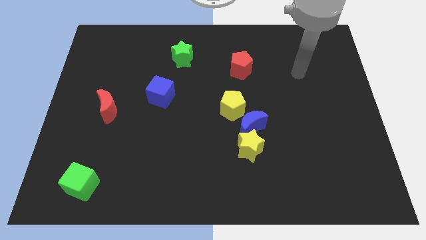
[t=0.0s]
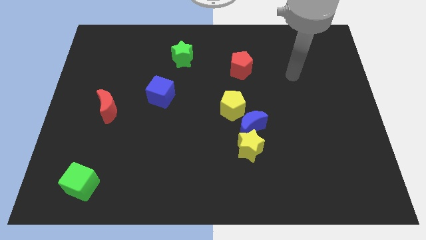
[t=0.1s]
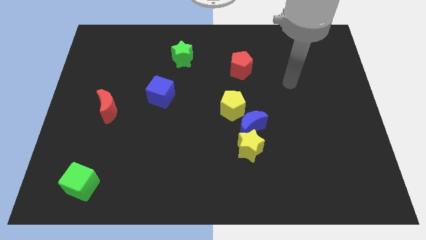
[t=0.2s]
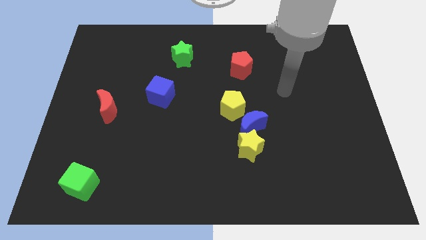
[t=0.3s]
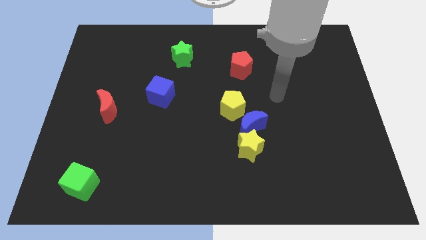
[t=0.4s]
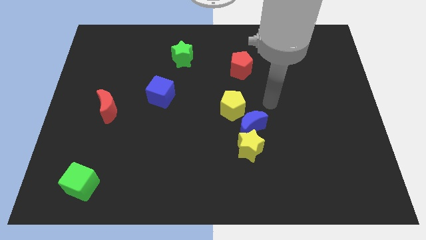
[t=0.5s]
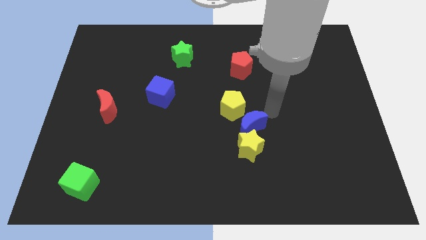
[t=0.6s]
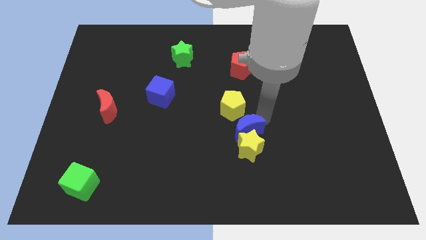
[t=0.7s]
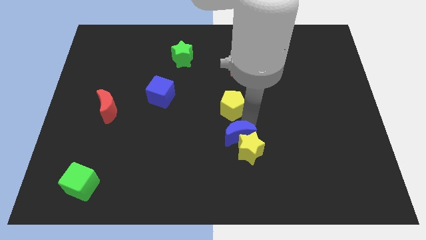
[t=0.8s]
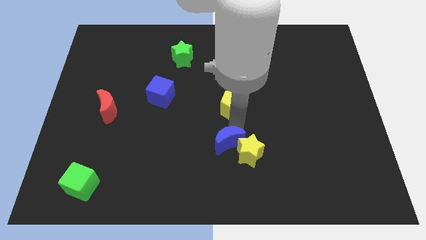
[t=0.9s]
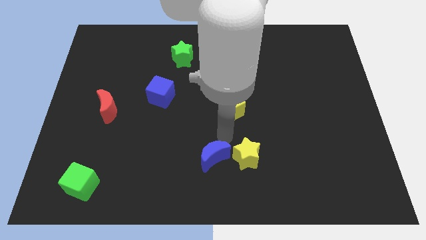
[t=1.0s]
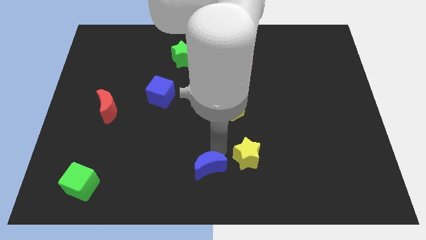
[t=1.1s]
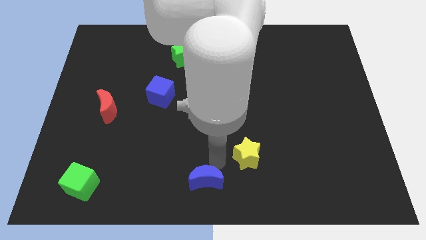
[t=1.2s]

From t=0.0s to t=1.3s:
move the yellow star away from the blue moon

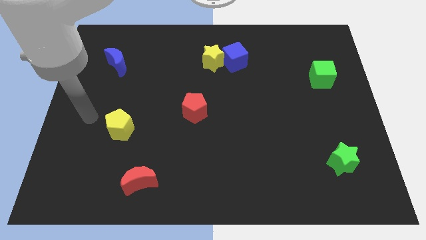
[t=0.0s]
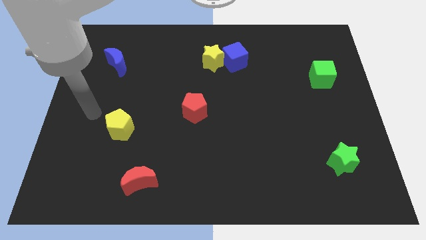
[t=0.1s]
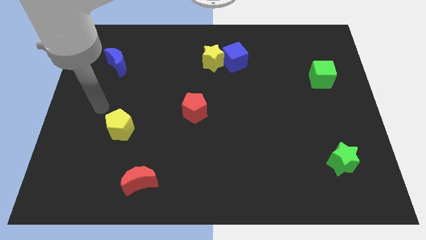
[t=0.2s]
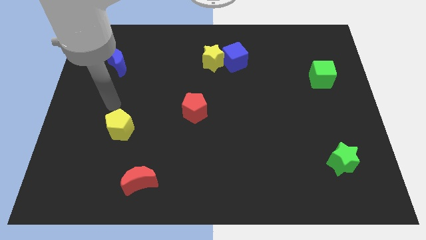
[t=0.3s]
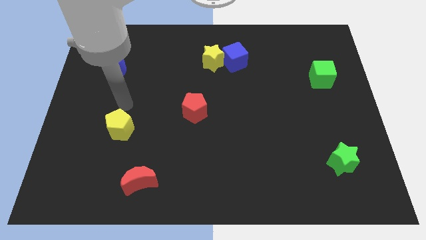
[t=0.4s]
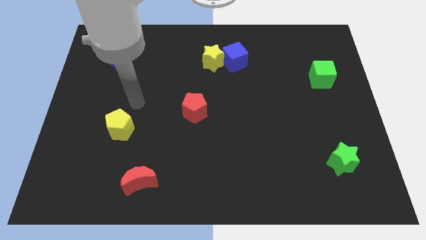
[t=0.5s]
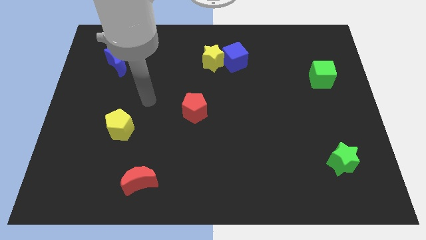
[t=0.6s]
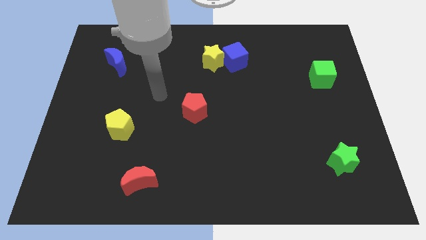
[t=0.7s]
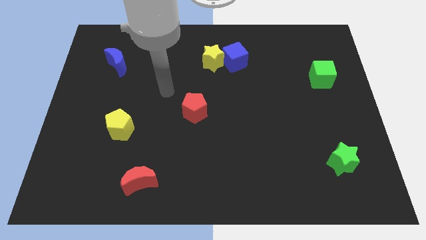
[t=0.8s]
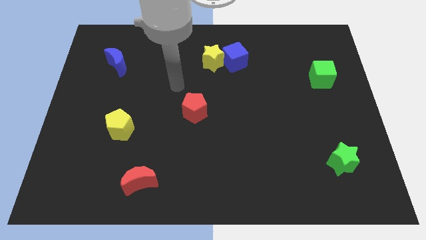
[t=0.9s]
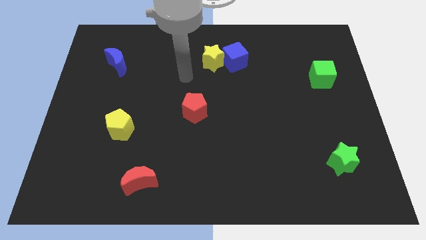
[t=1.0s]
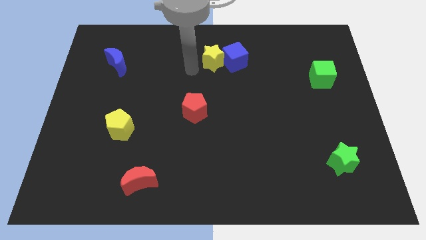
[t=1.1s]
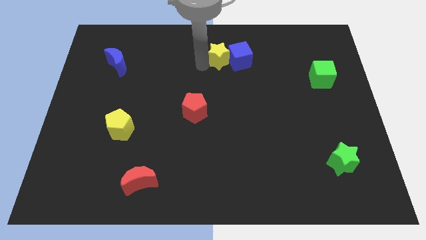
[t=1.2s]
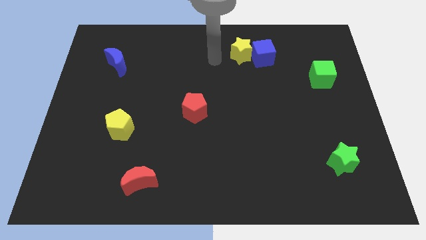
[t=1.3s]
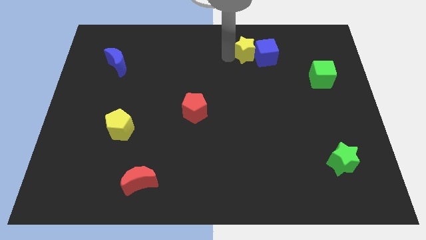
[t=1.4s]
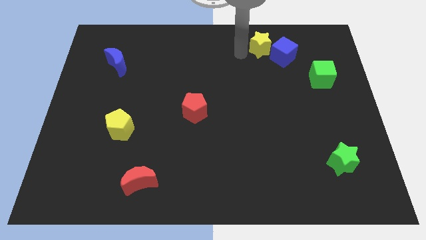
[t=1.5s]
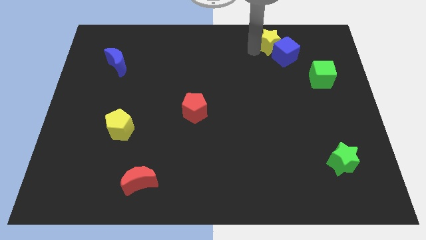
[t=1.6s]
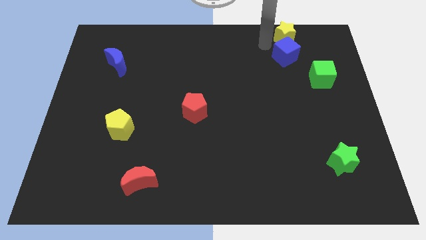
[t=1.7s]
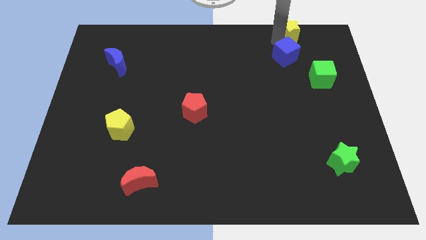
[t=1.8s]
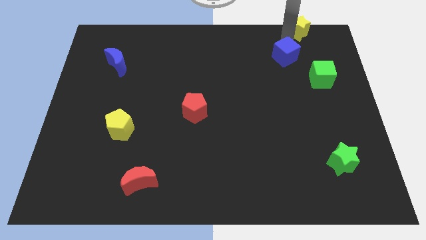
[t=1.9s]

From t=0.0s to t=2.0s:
pull the blue cube apart from the yellow star

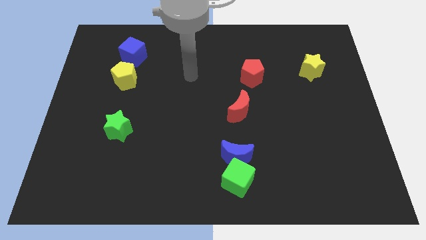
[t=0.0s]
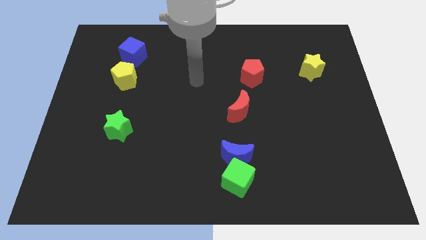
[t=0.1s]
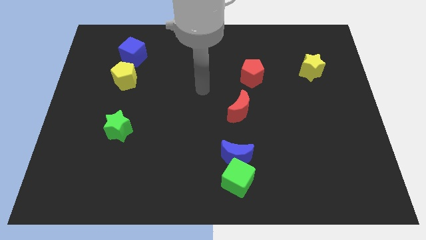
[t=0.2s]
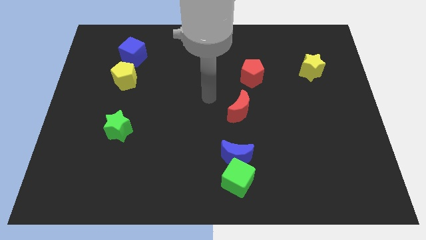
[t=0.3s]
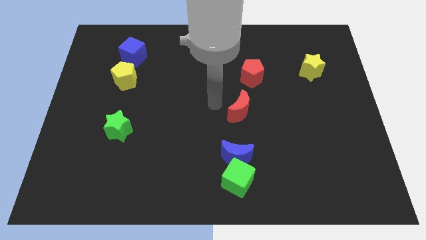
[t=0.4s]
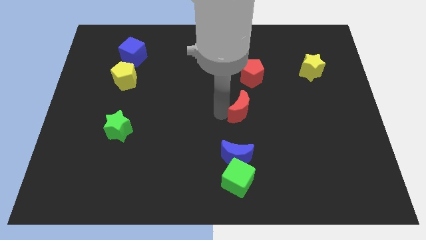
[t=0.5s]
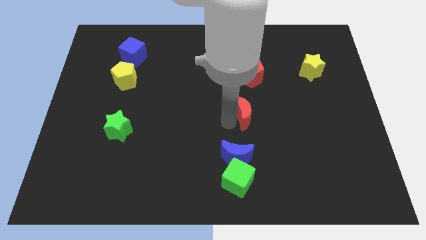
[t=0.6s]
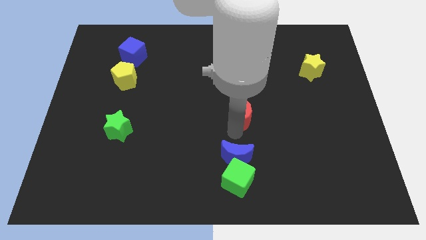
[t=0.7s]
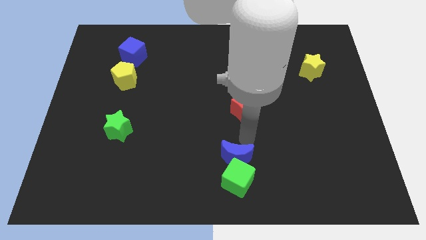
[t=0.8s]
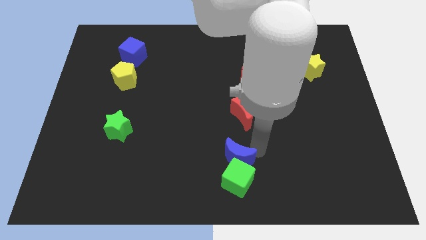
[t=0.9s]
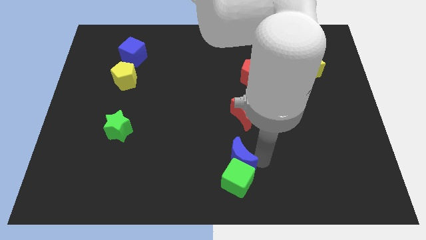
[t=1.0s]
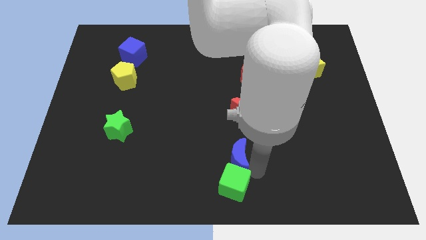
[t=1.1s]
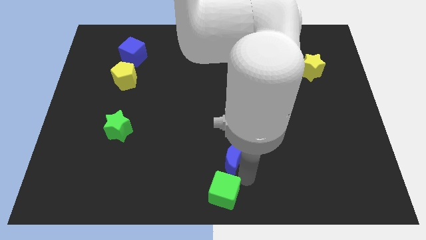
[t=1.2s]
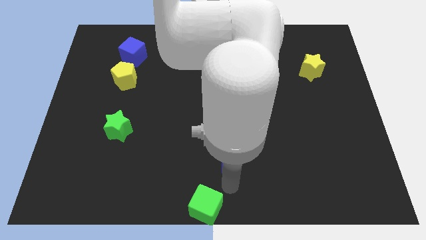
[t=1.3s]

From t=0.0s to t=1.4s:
separate the blue moon from the green cube

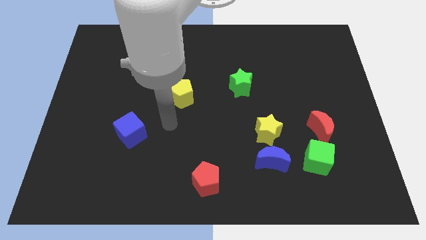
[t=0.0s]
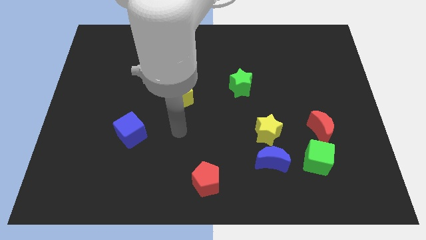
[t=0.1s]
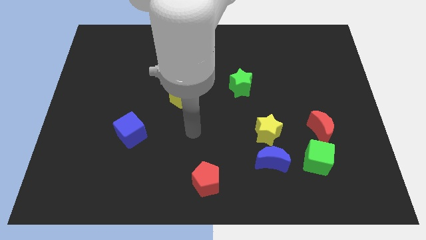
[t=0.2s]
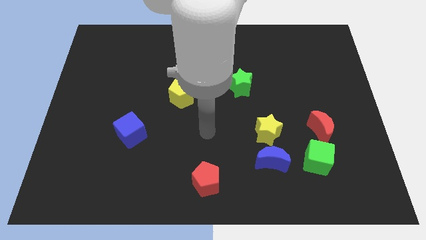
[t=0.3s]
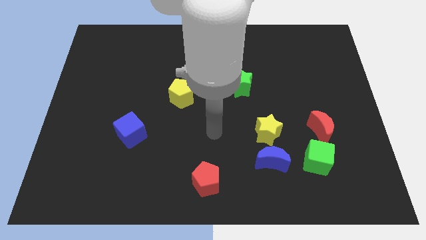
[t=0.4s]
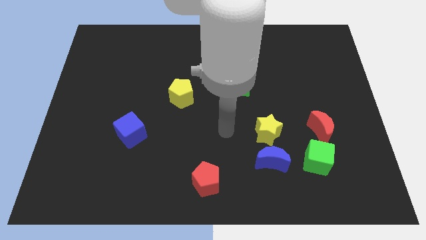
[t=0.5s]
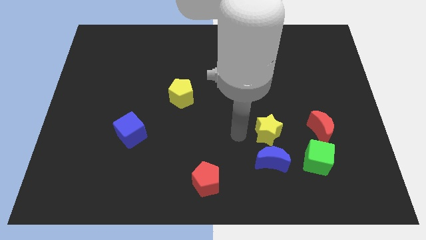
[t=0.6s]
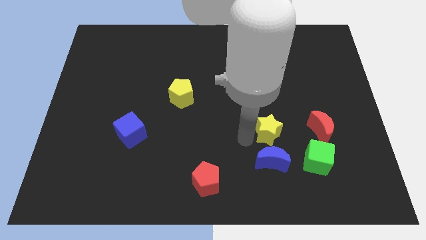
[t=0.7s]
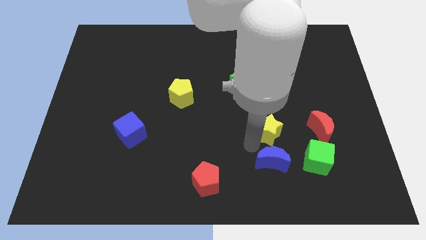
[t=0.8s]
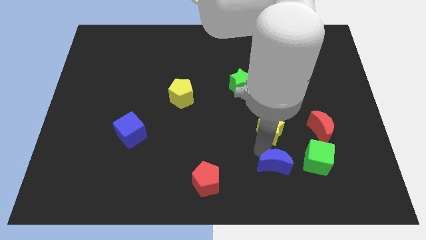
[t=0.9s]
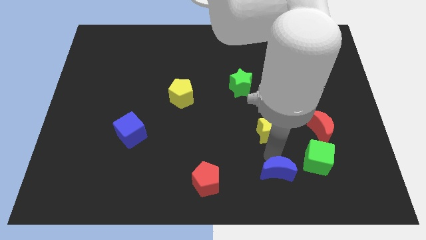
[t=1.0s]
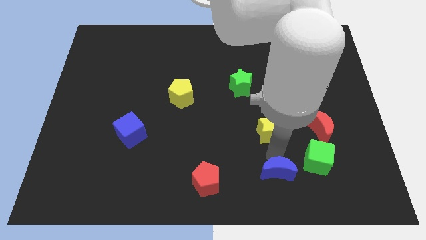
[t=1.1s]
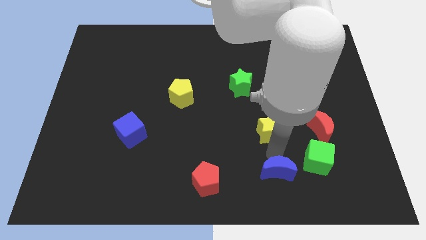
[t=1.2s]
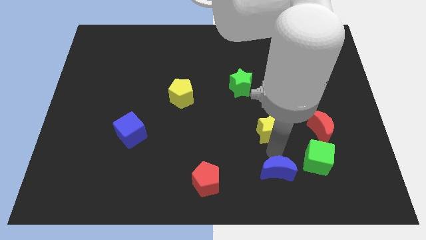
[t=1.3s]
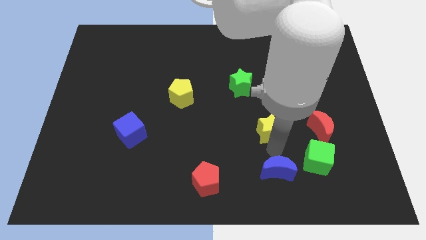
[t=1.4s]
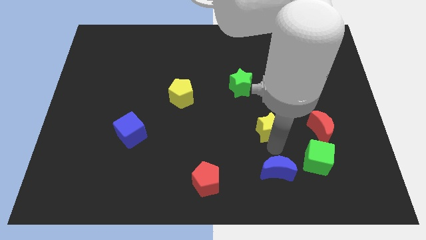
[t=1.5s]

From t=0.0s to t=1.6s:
separate the yellow star from the blue moon

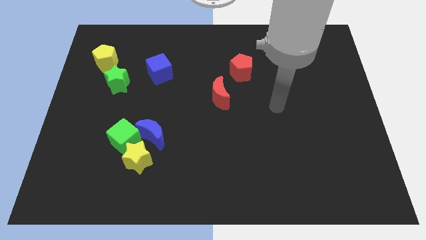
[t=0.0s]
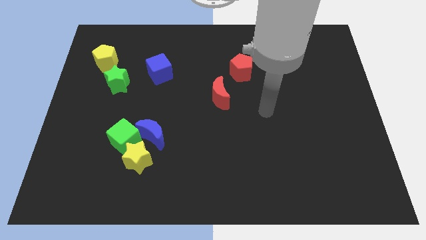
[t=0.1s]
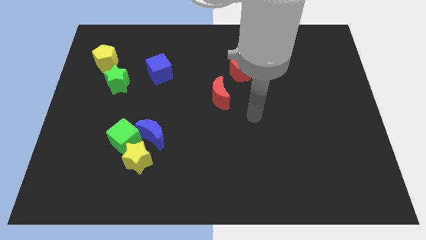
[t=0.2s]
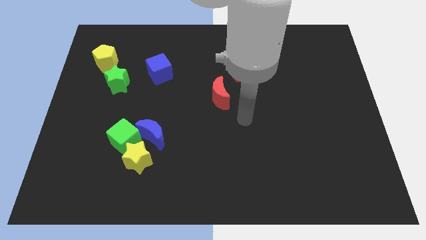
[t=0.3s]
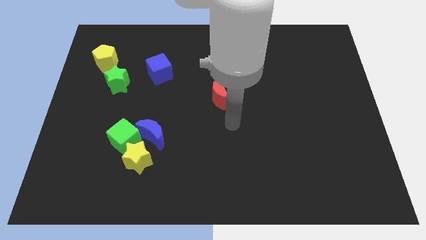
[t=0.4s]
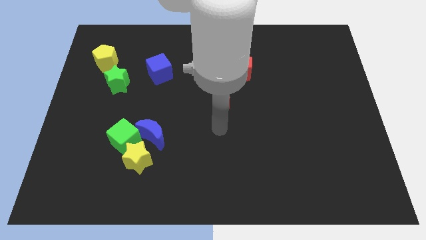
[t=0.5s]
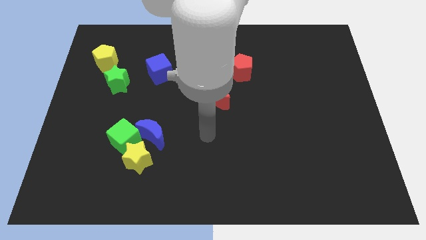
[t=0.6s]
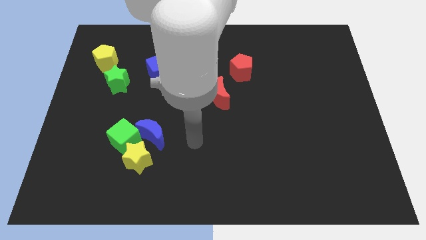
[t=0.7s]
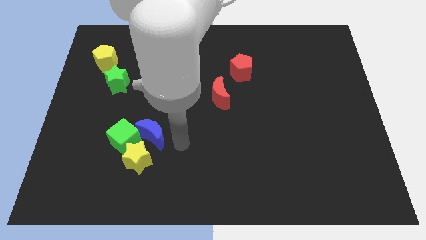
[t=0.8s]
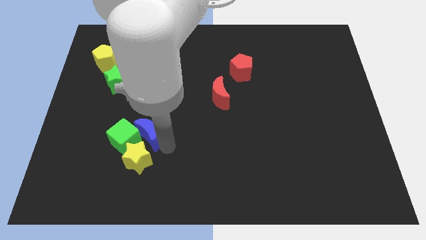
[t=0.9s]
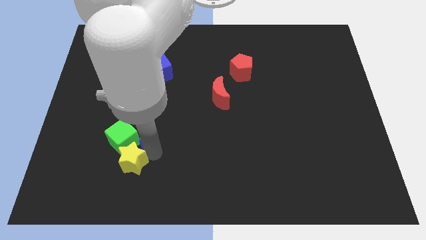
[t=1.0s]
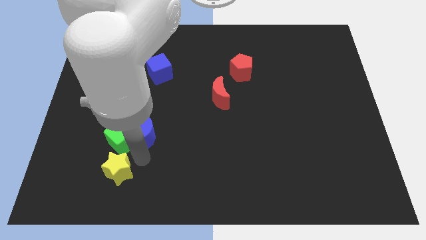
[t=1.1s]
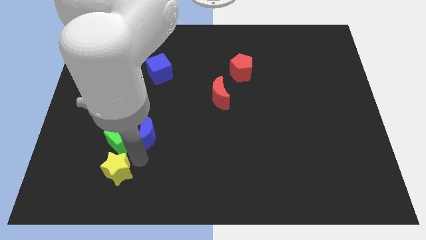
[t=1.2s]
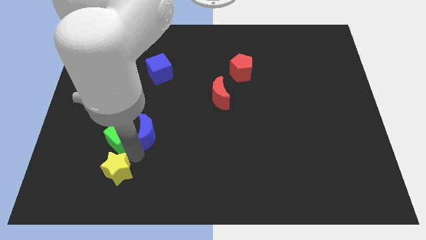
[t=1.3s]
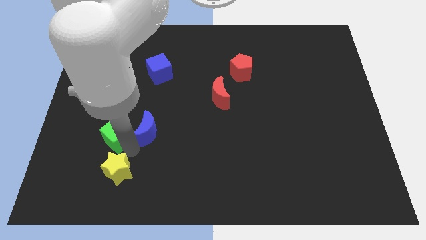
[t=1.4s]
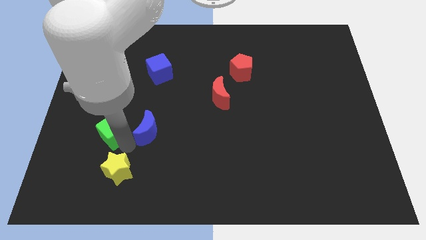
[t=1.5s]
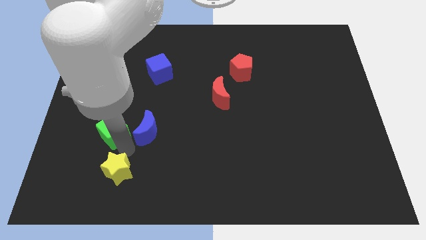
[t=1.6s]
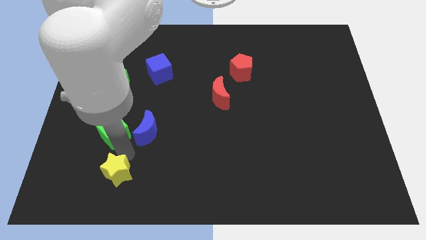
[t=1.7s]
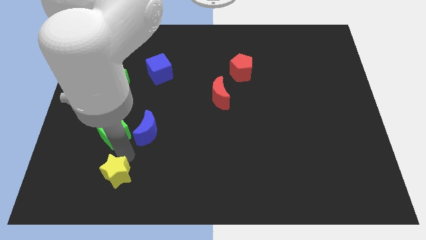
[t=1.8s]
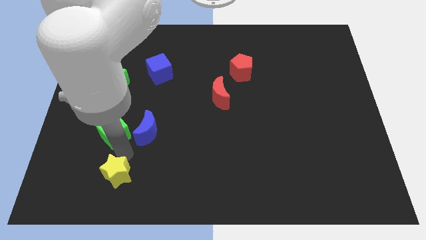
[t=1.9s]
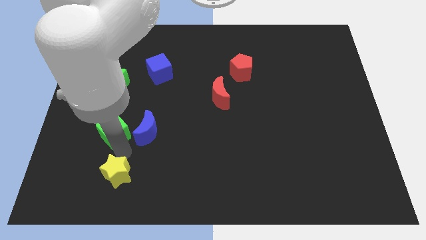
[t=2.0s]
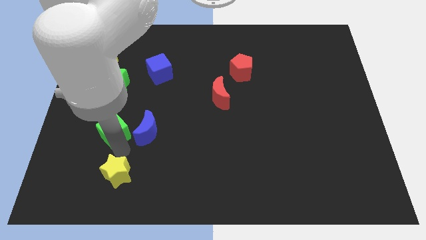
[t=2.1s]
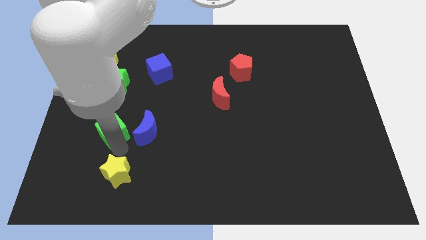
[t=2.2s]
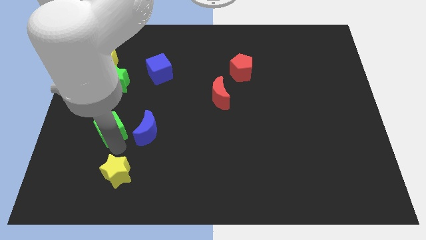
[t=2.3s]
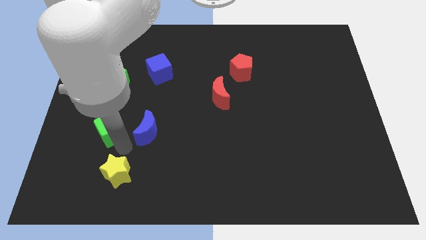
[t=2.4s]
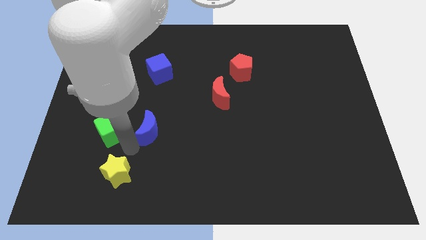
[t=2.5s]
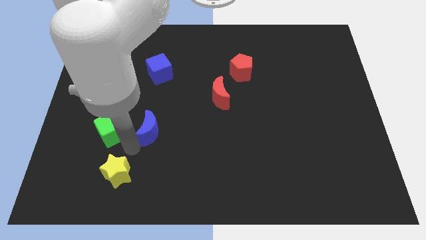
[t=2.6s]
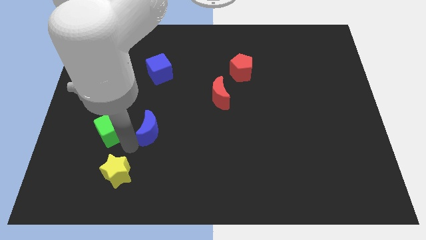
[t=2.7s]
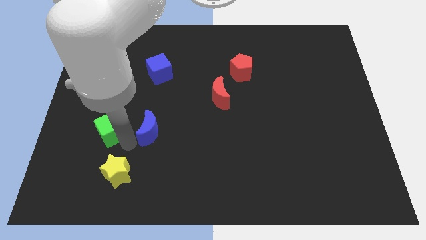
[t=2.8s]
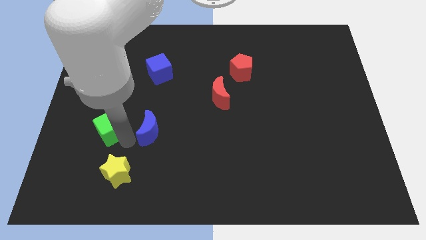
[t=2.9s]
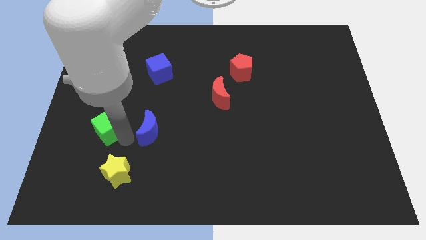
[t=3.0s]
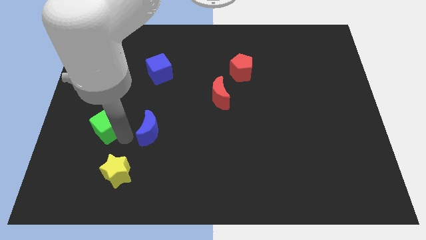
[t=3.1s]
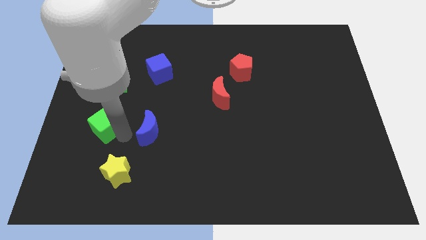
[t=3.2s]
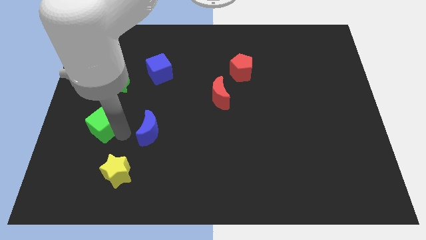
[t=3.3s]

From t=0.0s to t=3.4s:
pull the green cube apart from the yellow star and blue moon
